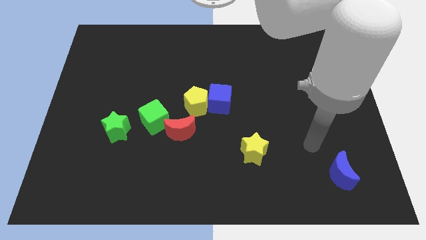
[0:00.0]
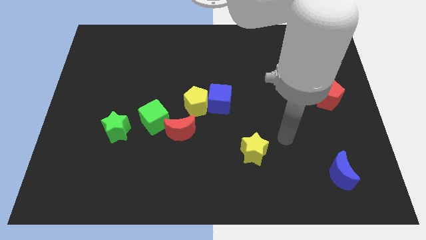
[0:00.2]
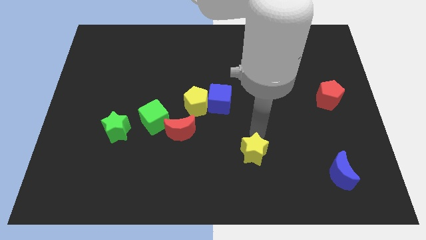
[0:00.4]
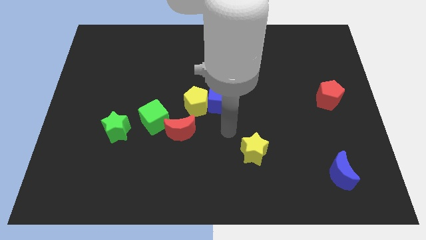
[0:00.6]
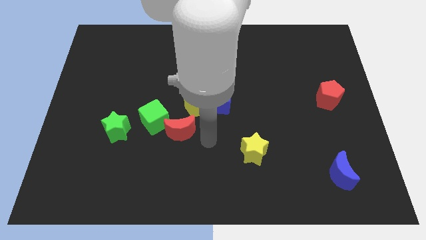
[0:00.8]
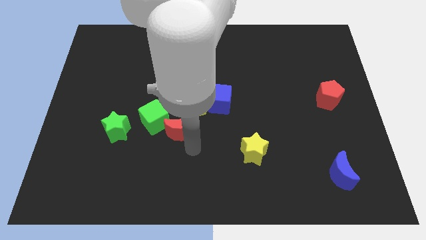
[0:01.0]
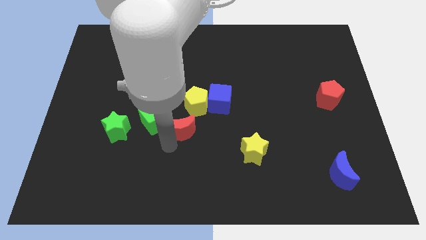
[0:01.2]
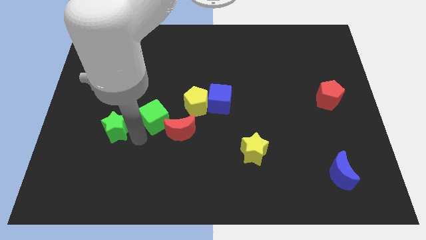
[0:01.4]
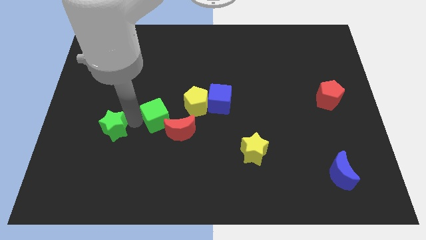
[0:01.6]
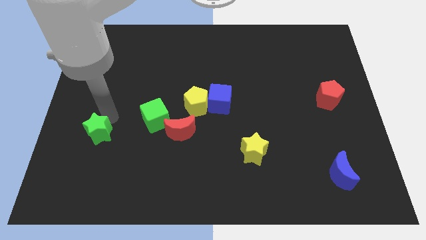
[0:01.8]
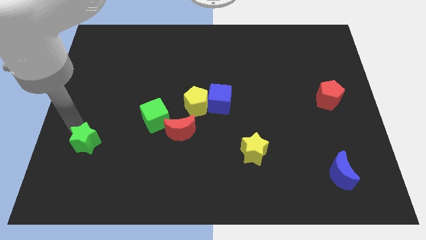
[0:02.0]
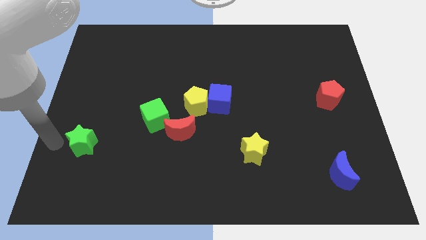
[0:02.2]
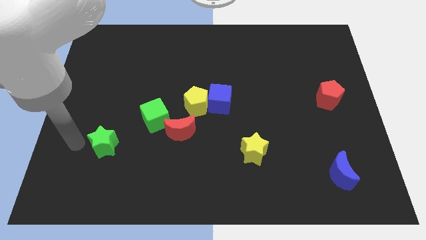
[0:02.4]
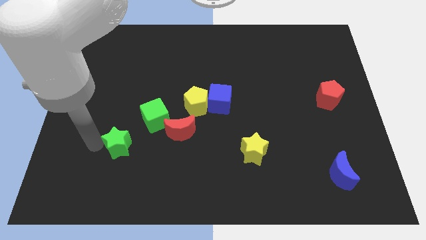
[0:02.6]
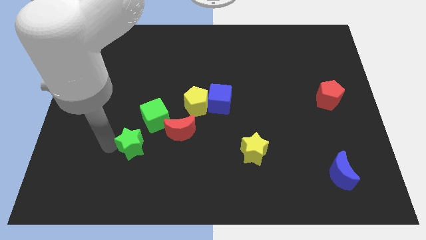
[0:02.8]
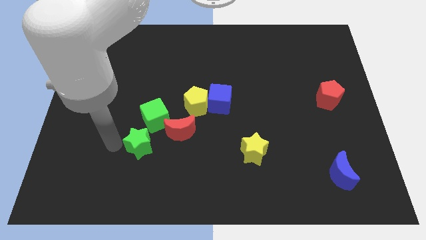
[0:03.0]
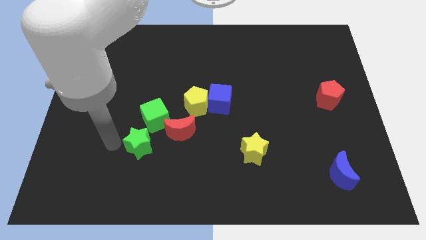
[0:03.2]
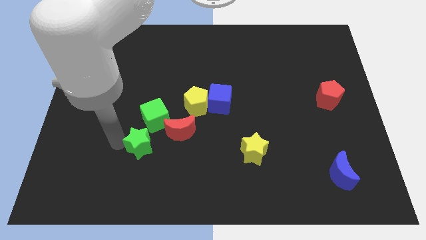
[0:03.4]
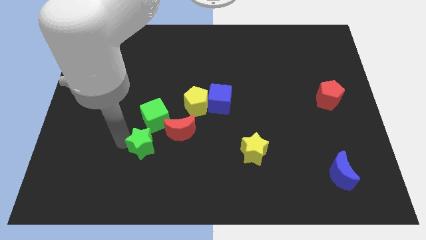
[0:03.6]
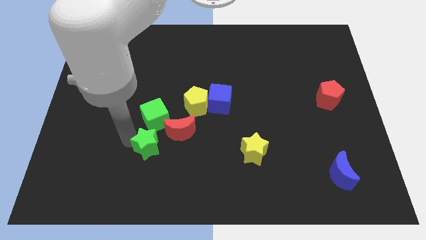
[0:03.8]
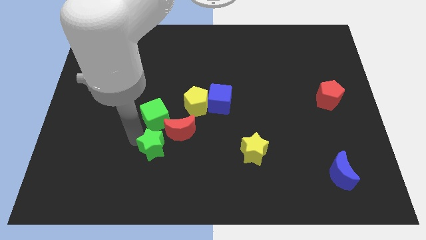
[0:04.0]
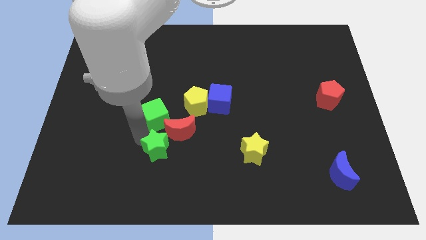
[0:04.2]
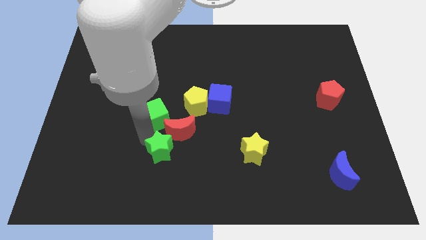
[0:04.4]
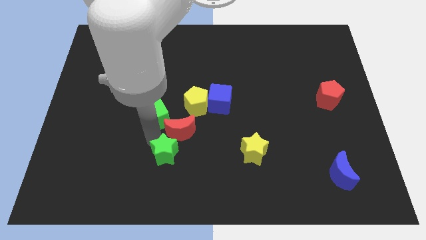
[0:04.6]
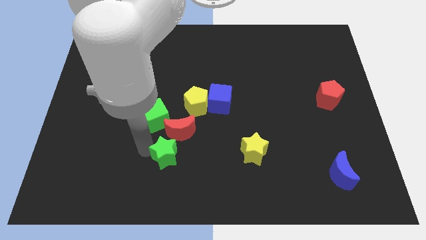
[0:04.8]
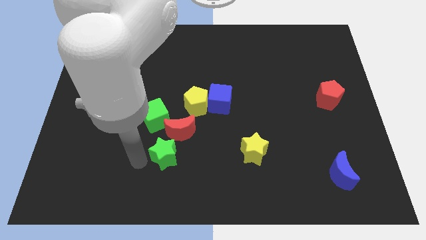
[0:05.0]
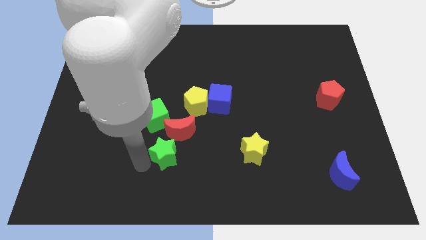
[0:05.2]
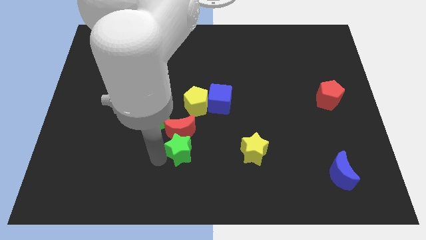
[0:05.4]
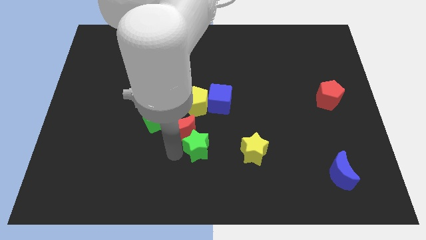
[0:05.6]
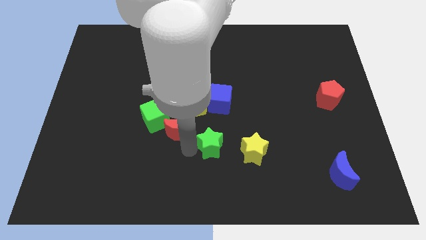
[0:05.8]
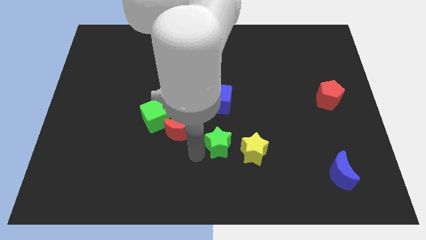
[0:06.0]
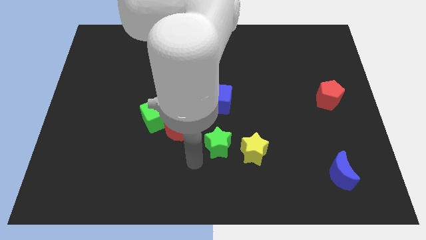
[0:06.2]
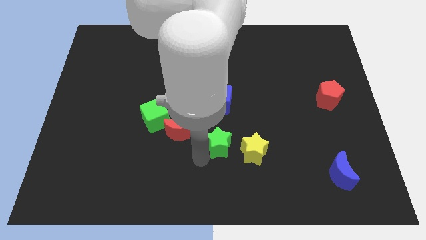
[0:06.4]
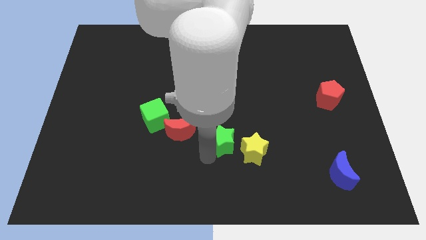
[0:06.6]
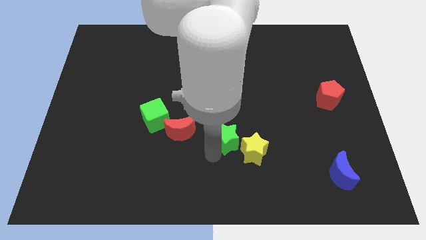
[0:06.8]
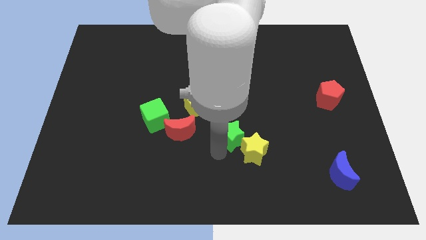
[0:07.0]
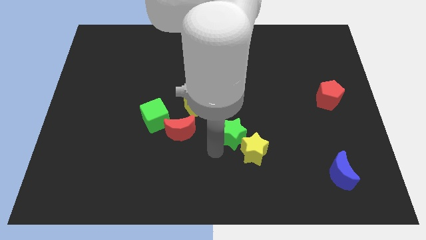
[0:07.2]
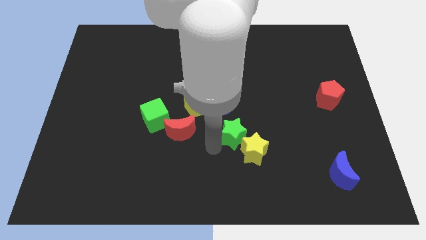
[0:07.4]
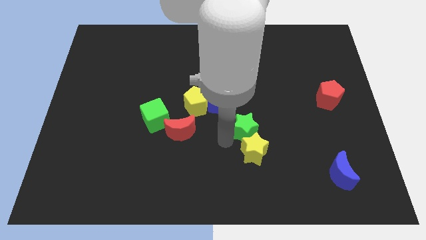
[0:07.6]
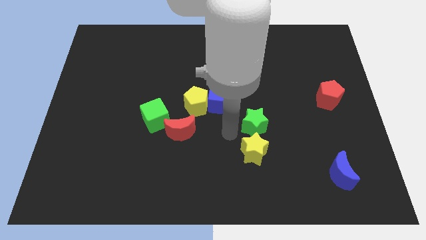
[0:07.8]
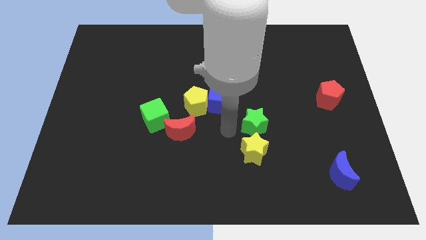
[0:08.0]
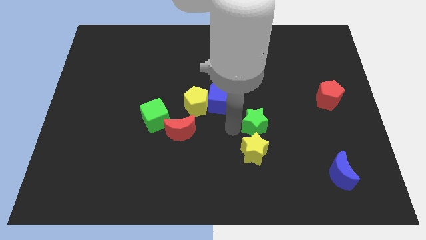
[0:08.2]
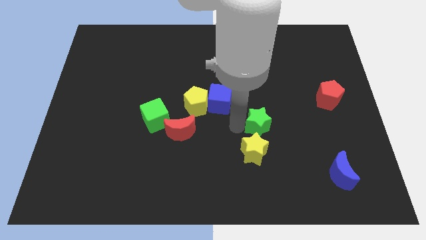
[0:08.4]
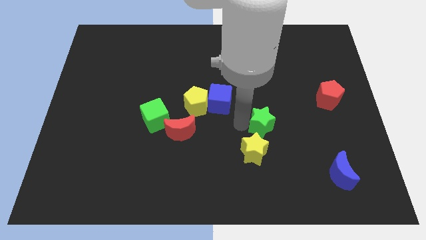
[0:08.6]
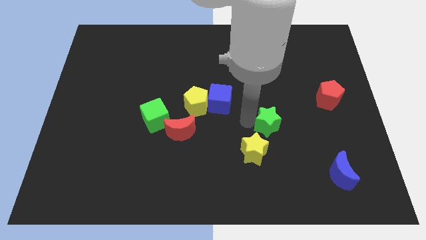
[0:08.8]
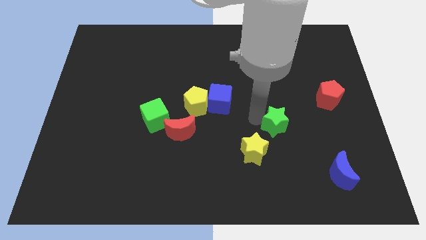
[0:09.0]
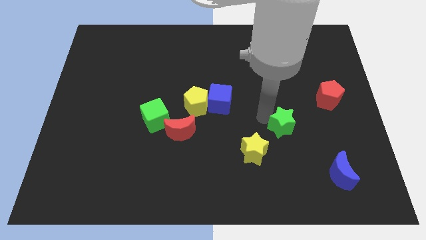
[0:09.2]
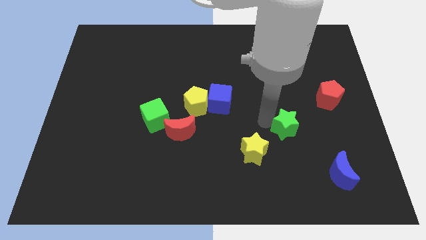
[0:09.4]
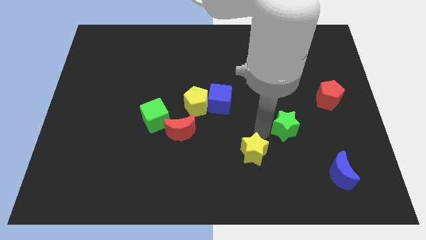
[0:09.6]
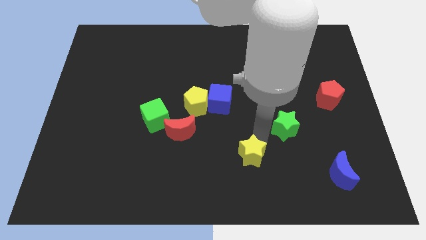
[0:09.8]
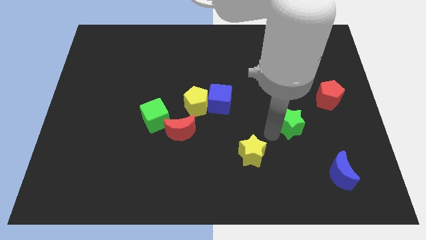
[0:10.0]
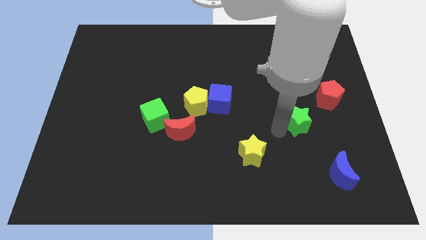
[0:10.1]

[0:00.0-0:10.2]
move the green star to the bottom left side of the red pentagon

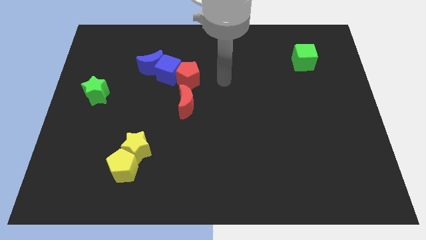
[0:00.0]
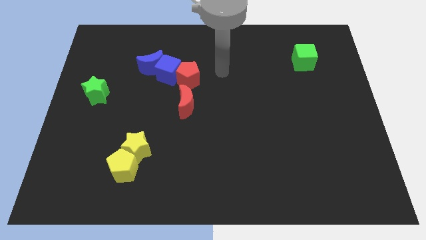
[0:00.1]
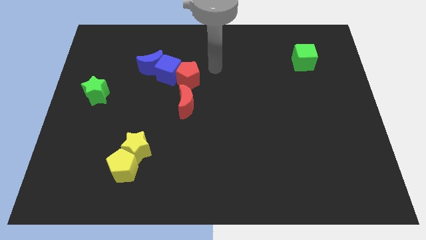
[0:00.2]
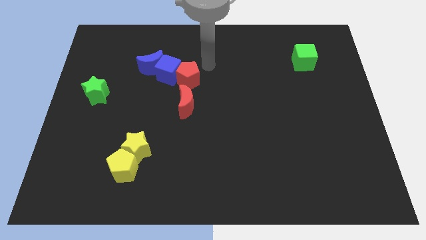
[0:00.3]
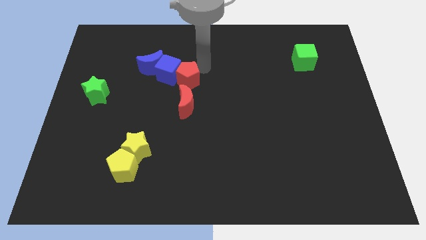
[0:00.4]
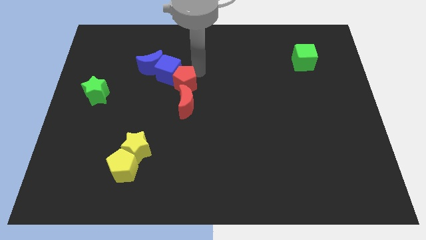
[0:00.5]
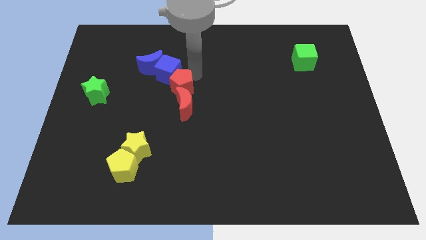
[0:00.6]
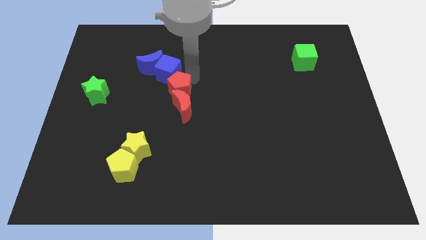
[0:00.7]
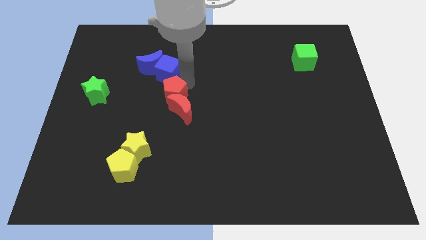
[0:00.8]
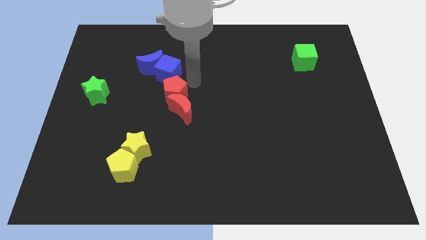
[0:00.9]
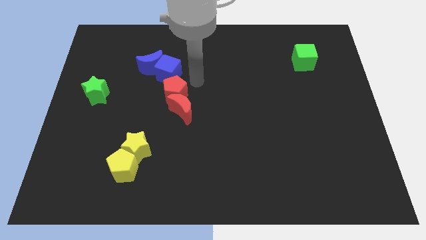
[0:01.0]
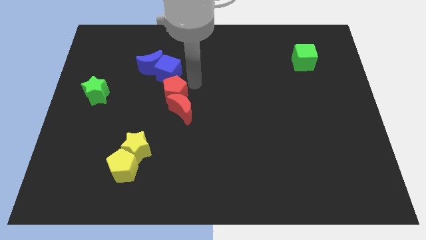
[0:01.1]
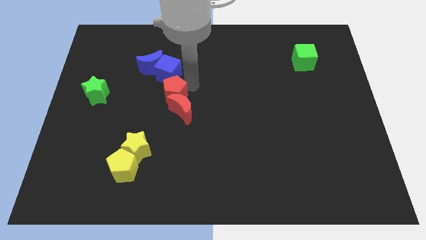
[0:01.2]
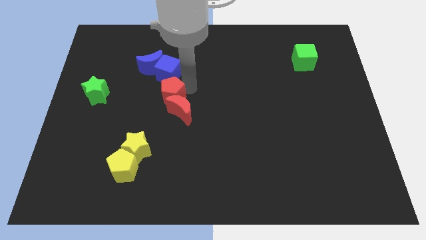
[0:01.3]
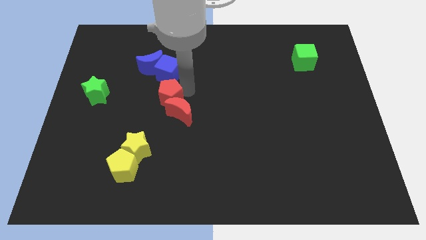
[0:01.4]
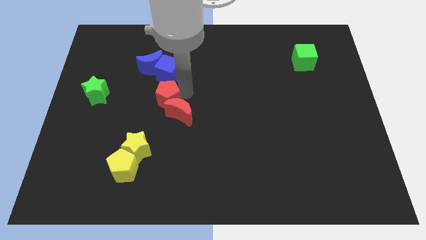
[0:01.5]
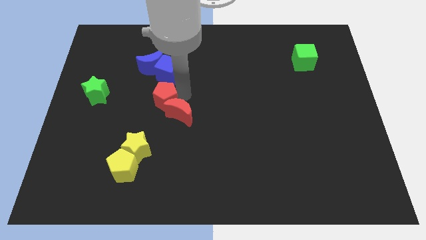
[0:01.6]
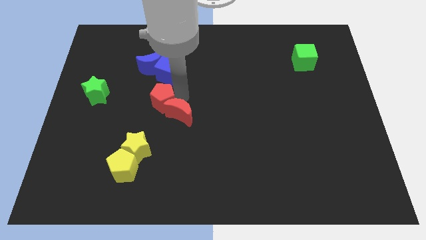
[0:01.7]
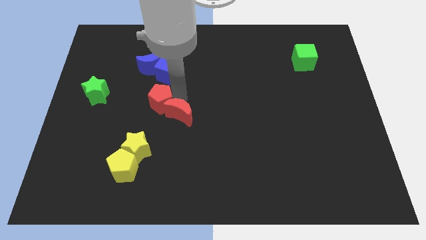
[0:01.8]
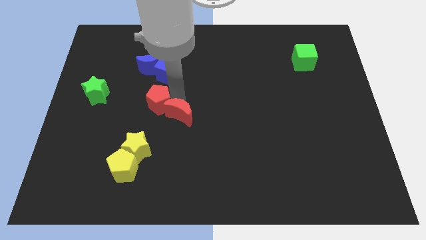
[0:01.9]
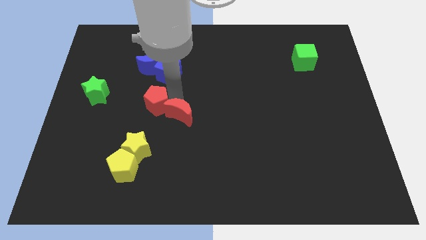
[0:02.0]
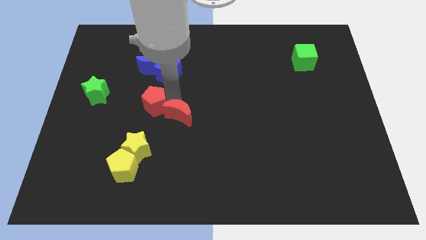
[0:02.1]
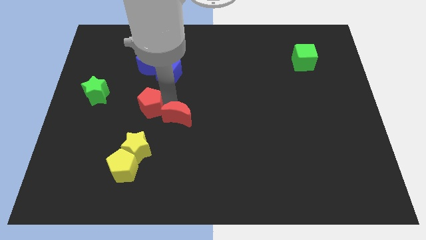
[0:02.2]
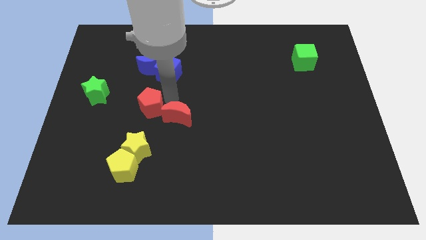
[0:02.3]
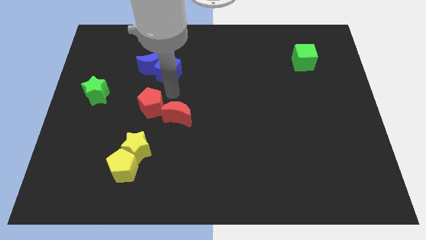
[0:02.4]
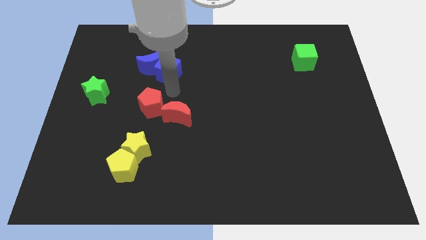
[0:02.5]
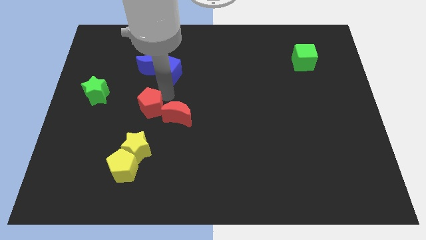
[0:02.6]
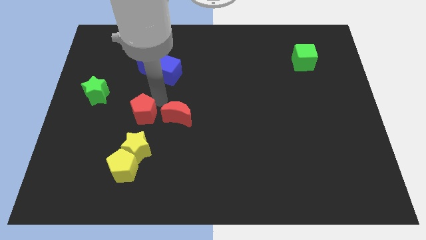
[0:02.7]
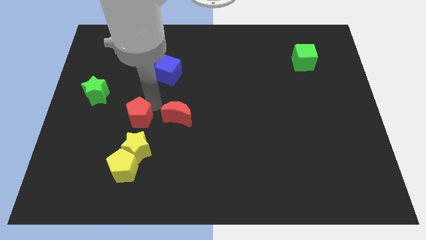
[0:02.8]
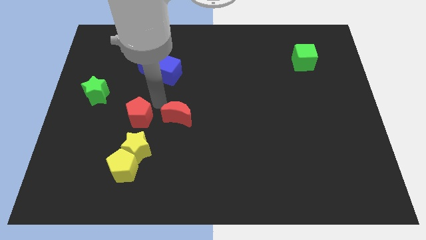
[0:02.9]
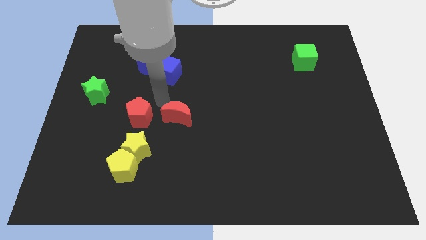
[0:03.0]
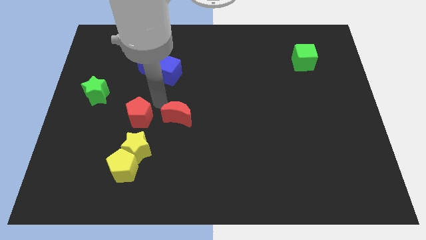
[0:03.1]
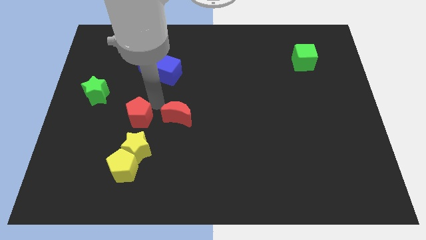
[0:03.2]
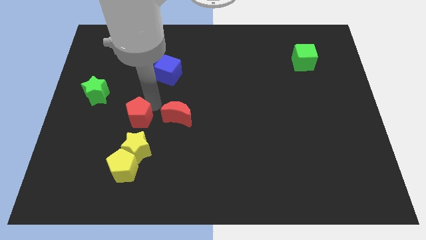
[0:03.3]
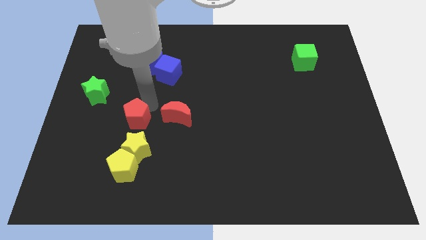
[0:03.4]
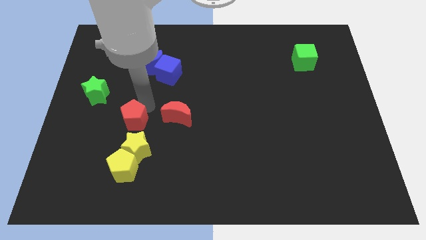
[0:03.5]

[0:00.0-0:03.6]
slide the red pentagon diagonally up and to the left of the yellow star
